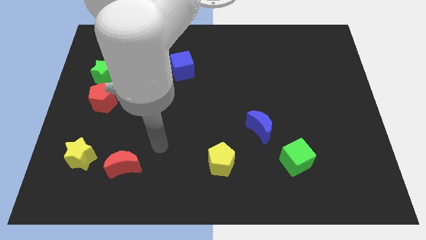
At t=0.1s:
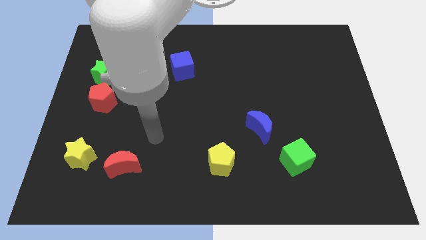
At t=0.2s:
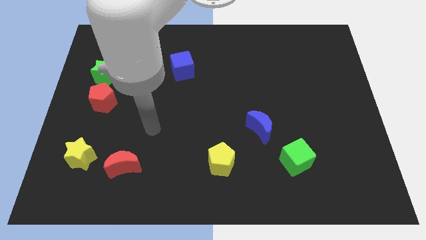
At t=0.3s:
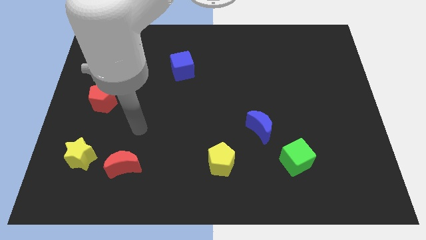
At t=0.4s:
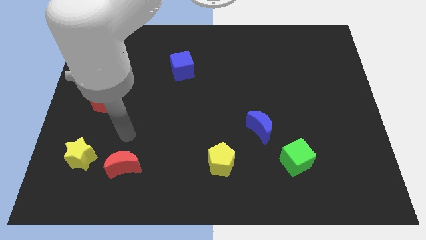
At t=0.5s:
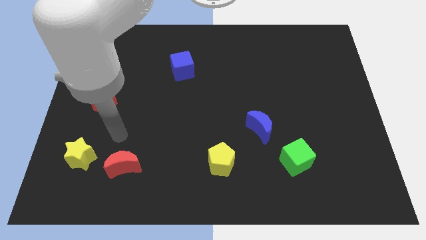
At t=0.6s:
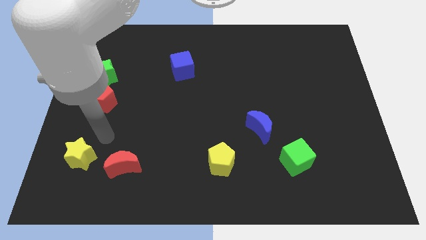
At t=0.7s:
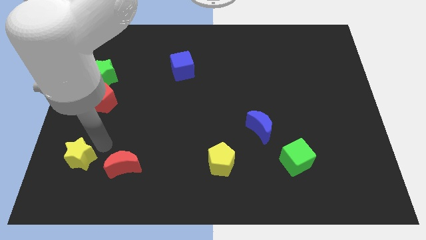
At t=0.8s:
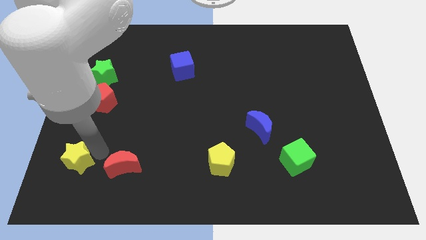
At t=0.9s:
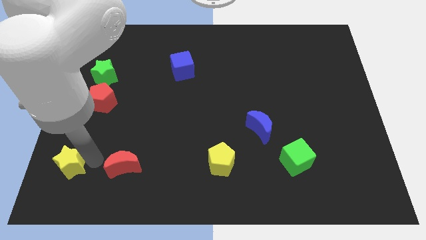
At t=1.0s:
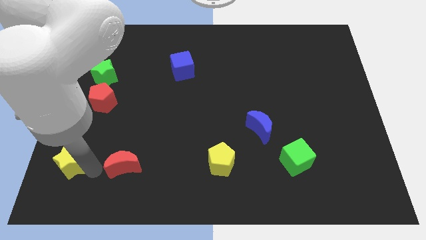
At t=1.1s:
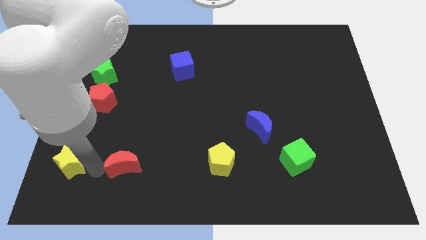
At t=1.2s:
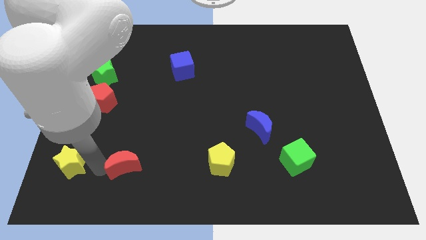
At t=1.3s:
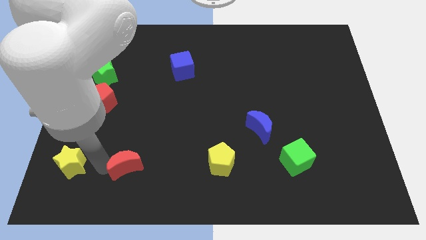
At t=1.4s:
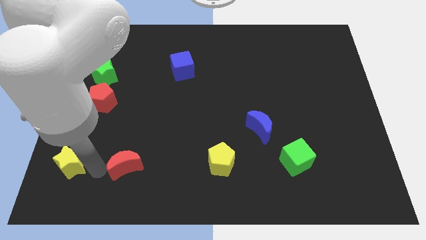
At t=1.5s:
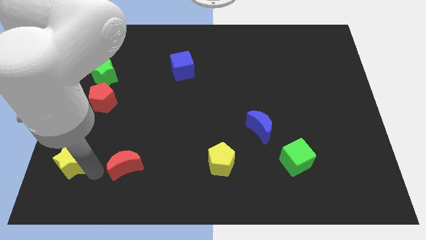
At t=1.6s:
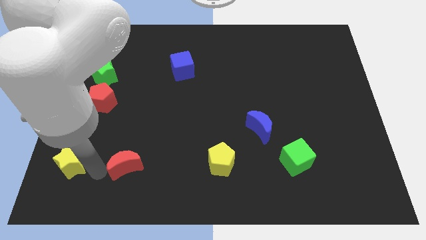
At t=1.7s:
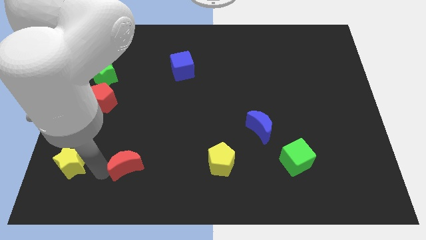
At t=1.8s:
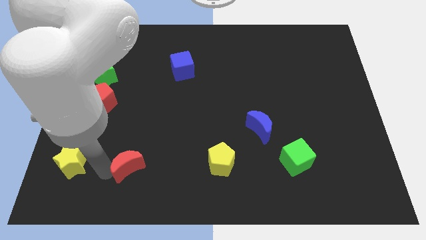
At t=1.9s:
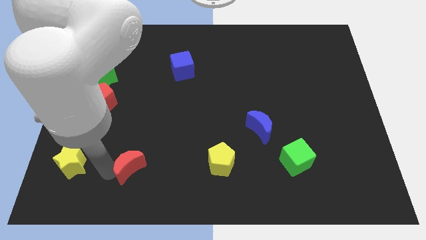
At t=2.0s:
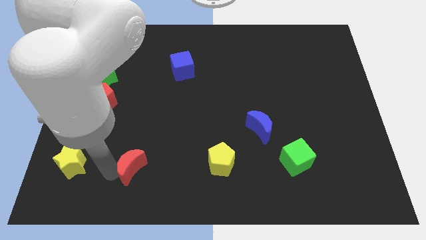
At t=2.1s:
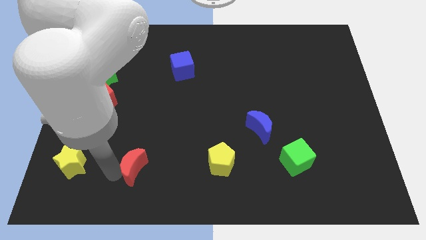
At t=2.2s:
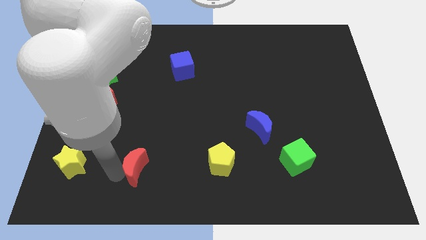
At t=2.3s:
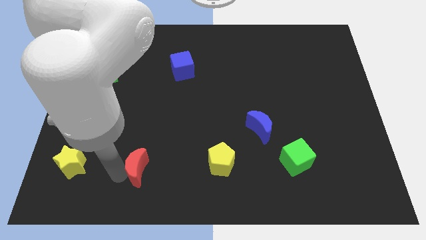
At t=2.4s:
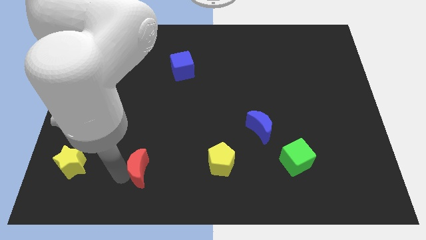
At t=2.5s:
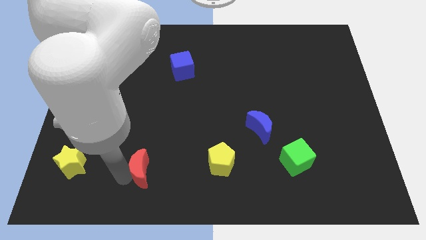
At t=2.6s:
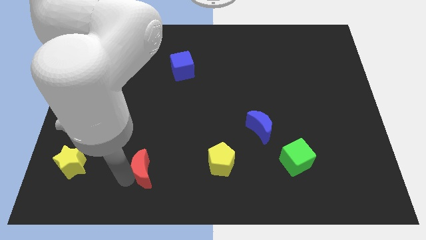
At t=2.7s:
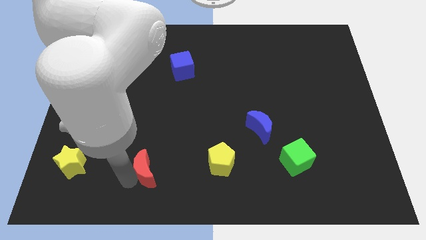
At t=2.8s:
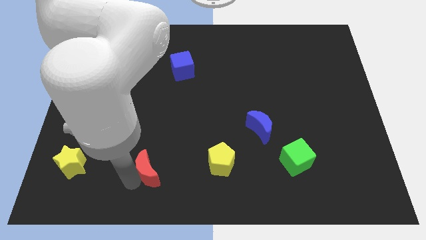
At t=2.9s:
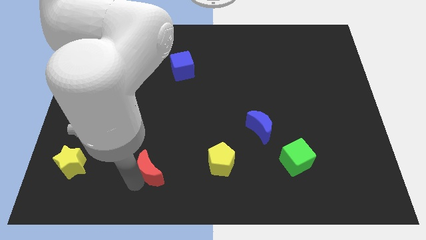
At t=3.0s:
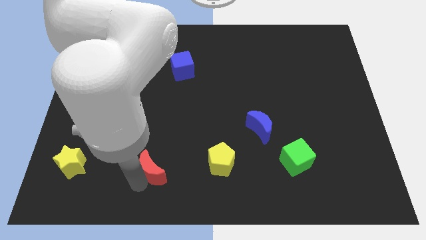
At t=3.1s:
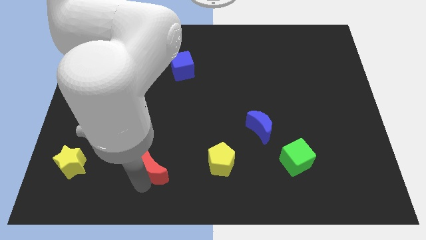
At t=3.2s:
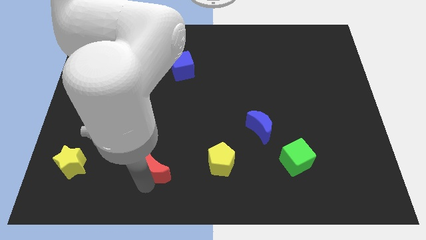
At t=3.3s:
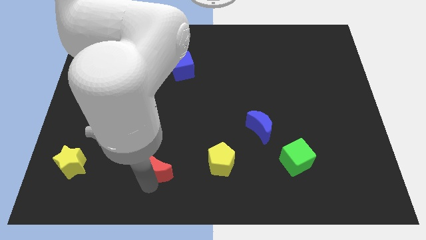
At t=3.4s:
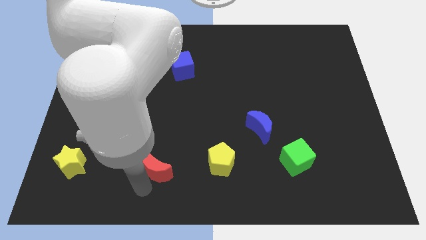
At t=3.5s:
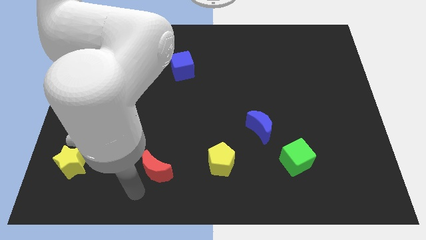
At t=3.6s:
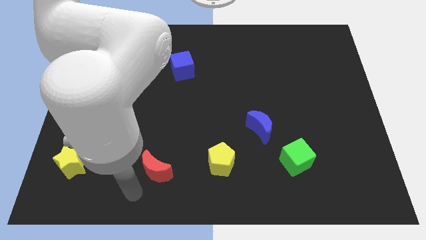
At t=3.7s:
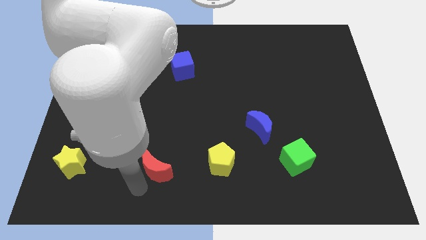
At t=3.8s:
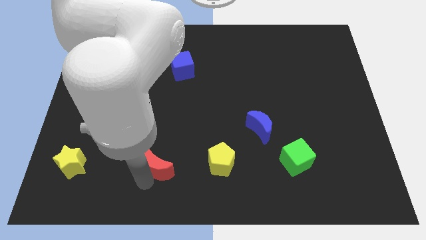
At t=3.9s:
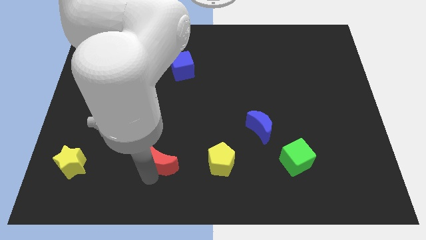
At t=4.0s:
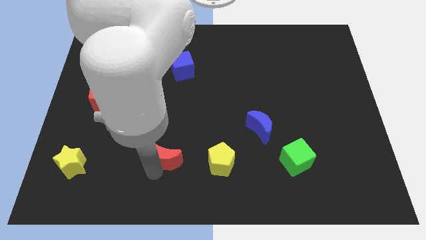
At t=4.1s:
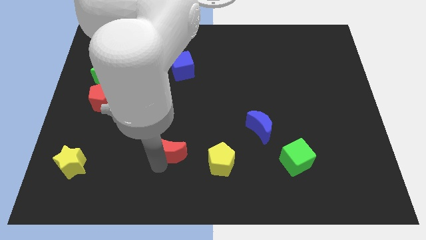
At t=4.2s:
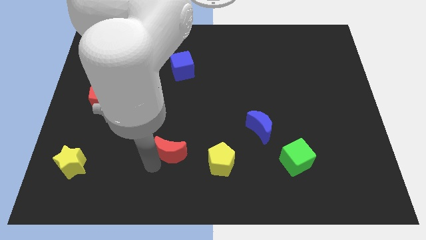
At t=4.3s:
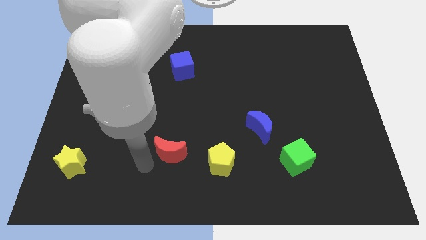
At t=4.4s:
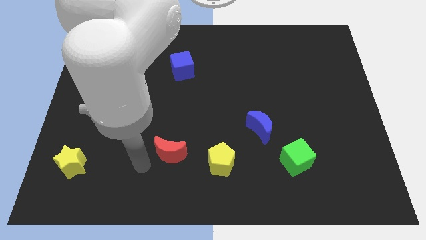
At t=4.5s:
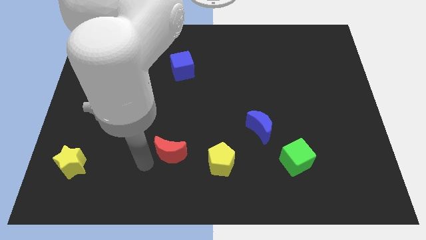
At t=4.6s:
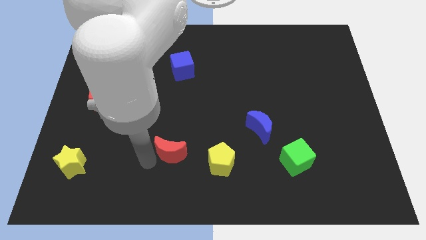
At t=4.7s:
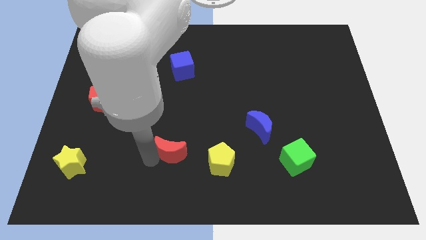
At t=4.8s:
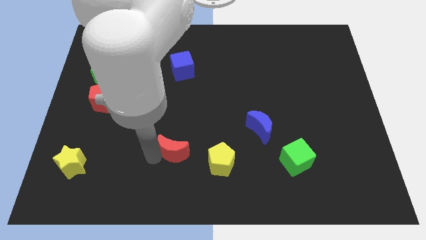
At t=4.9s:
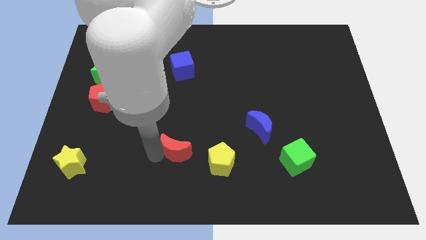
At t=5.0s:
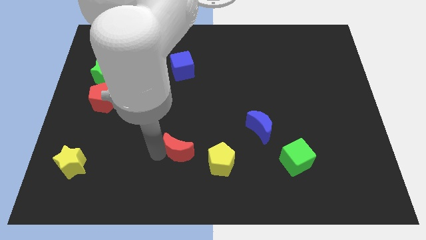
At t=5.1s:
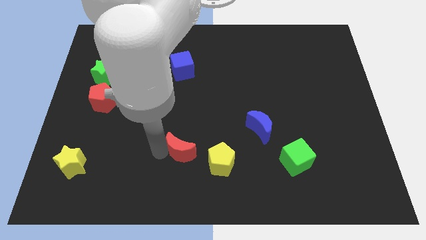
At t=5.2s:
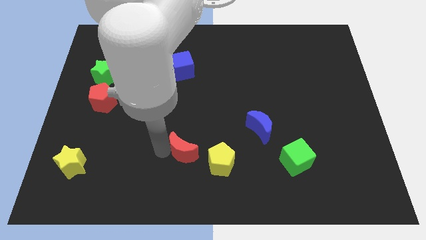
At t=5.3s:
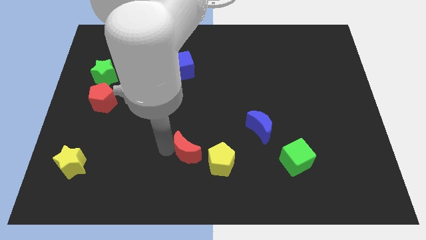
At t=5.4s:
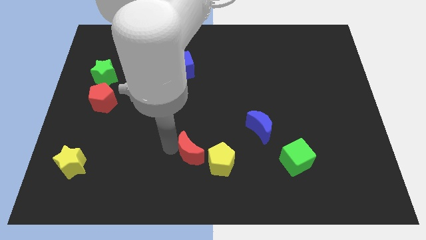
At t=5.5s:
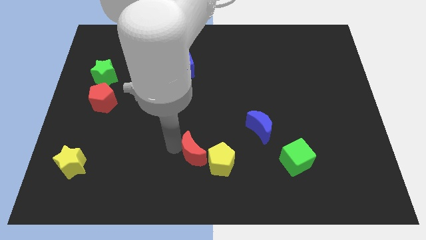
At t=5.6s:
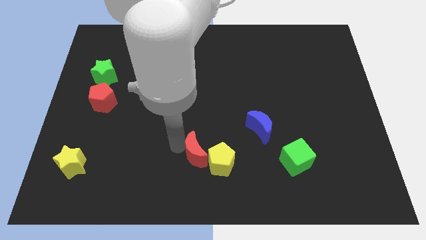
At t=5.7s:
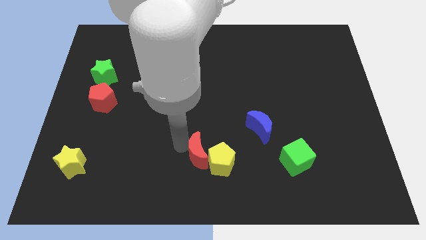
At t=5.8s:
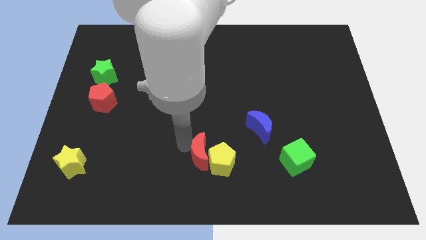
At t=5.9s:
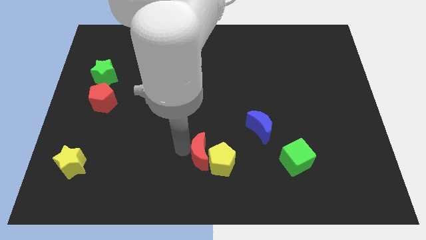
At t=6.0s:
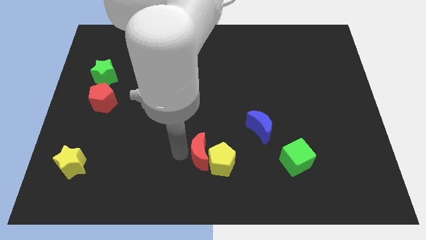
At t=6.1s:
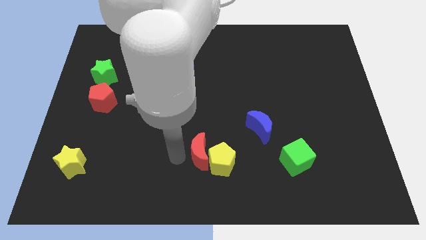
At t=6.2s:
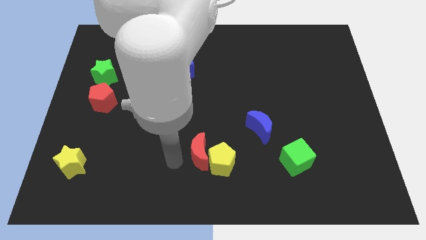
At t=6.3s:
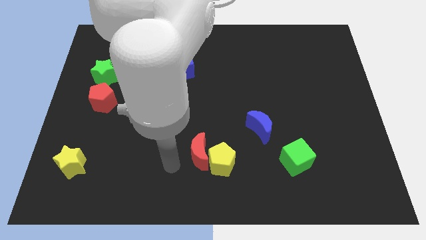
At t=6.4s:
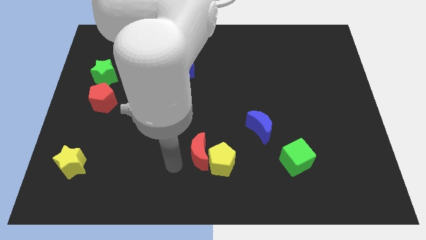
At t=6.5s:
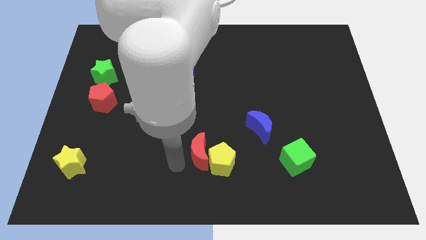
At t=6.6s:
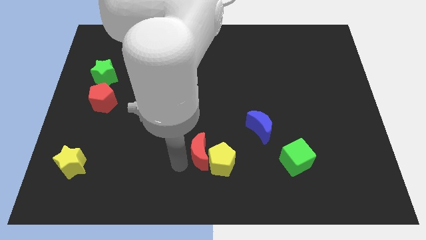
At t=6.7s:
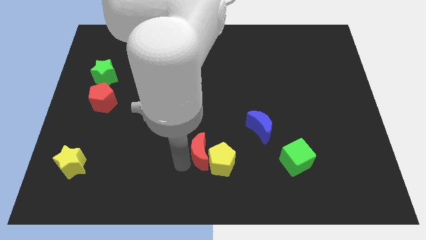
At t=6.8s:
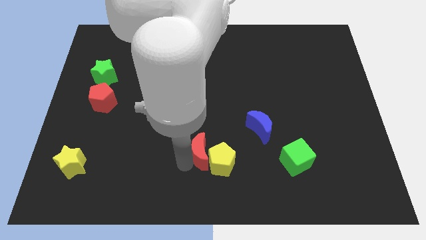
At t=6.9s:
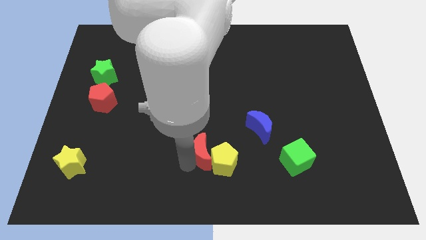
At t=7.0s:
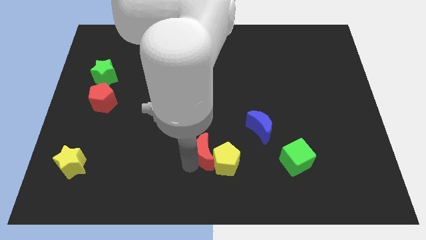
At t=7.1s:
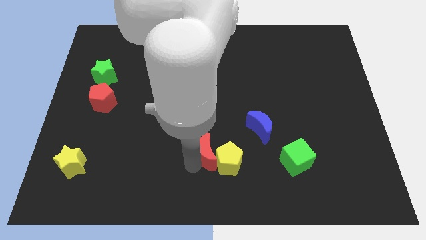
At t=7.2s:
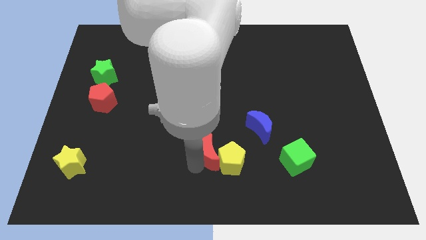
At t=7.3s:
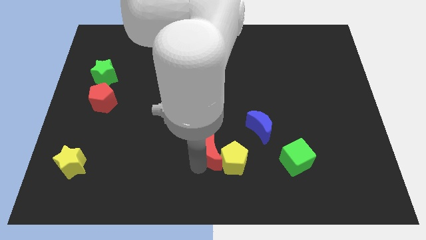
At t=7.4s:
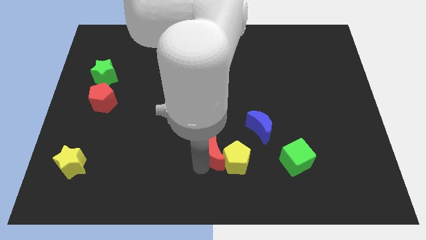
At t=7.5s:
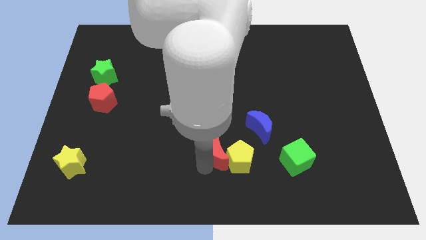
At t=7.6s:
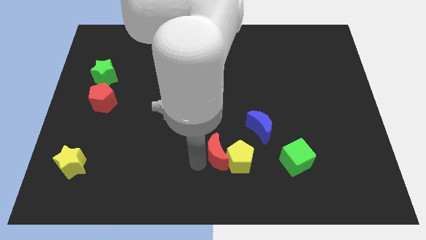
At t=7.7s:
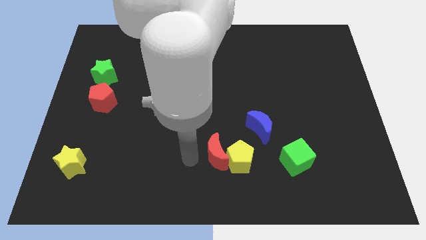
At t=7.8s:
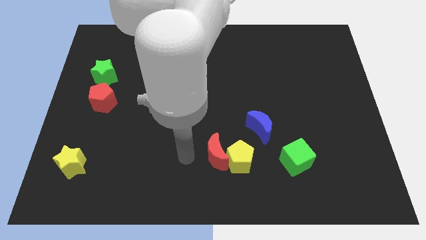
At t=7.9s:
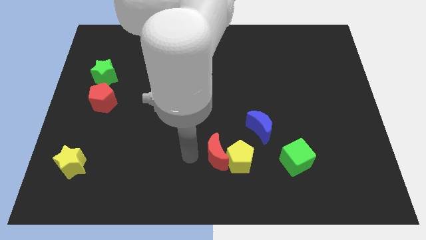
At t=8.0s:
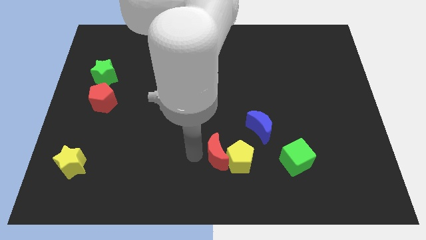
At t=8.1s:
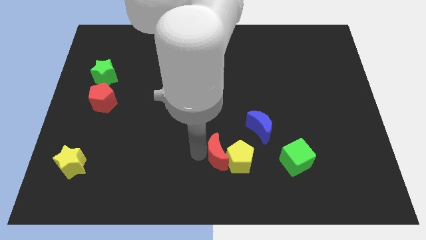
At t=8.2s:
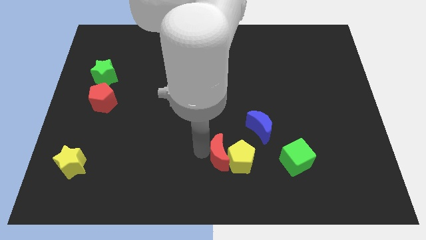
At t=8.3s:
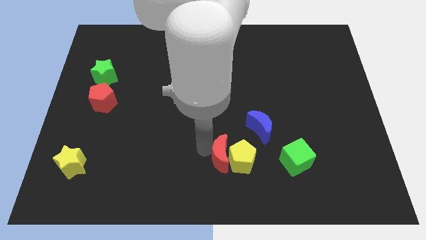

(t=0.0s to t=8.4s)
push the red moon to the right

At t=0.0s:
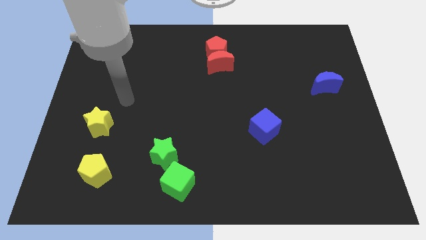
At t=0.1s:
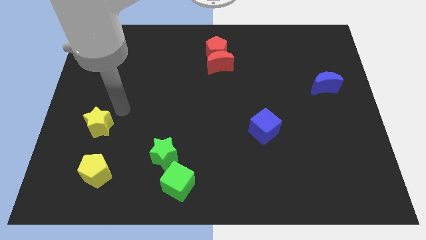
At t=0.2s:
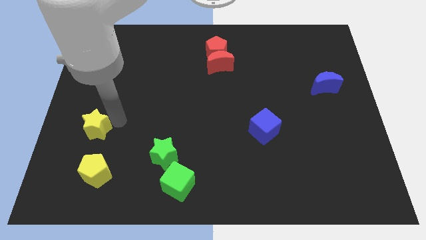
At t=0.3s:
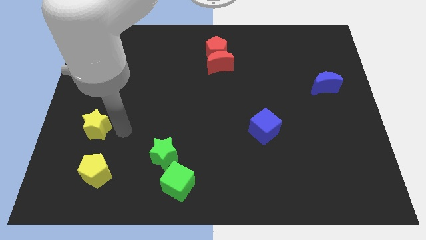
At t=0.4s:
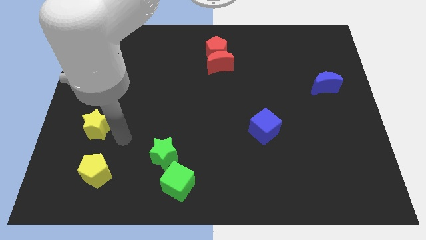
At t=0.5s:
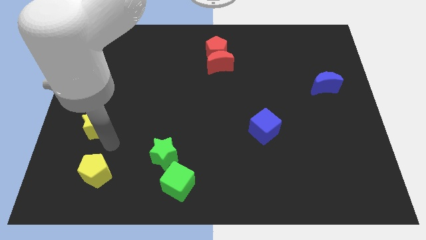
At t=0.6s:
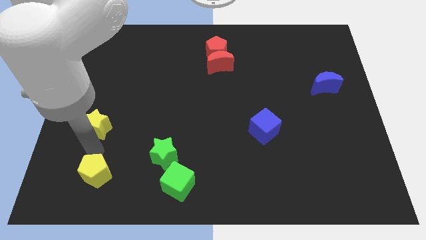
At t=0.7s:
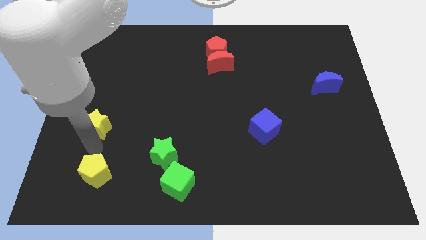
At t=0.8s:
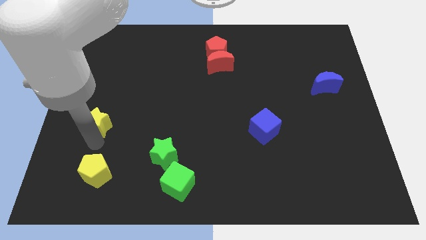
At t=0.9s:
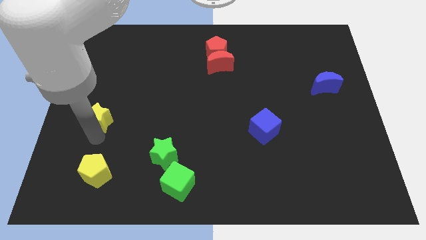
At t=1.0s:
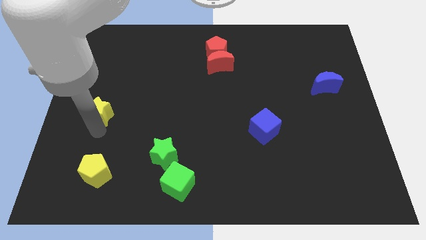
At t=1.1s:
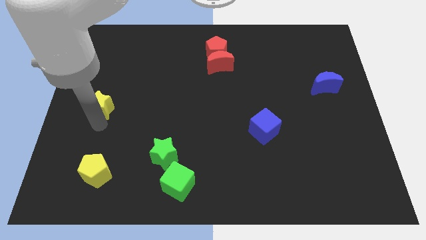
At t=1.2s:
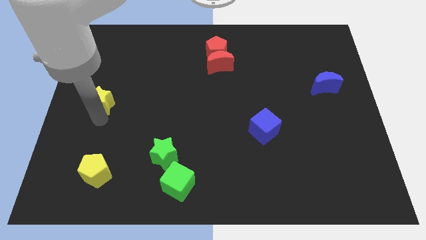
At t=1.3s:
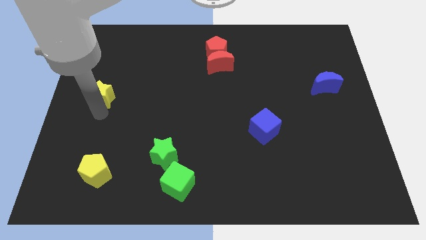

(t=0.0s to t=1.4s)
slightly slide the yellow star up
